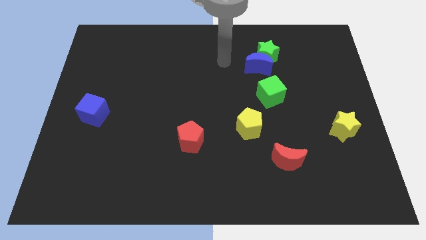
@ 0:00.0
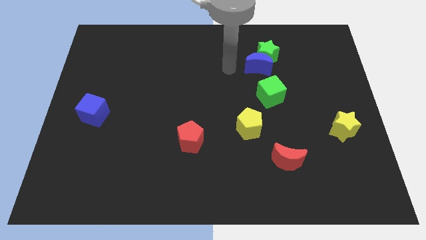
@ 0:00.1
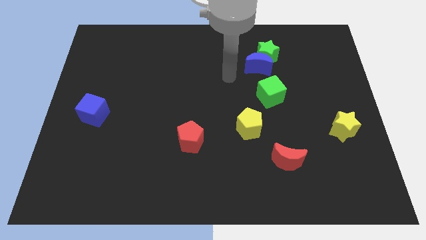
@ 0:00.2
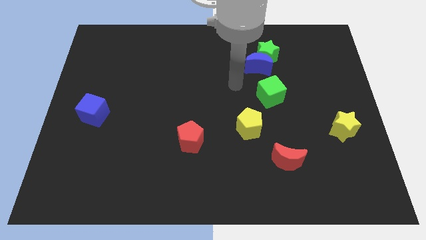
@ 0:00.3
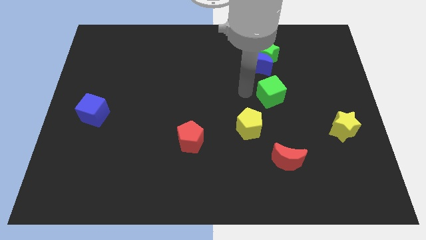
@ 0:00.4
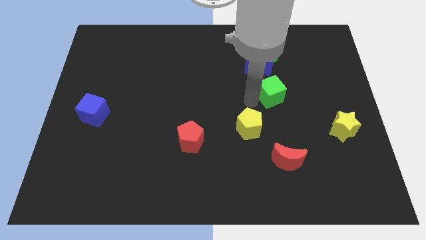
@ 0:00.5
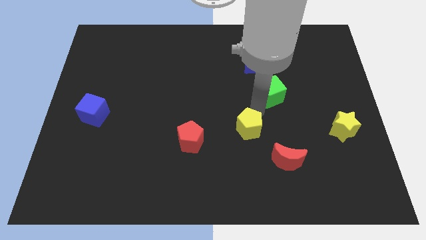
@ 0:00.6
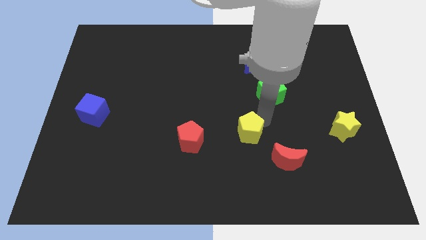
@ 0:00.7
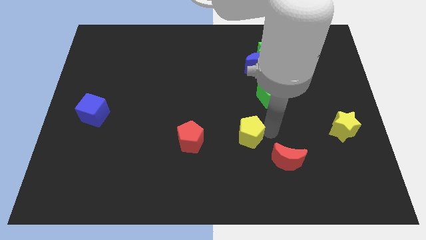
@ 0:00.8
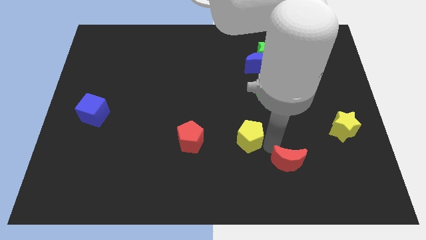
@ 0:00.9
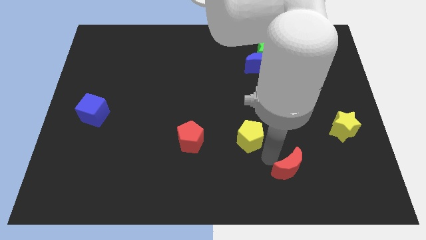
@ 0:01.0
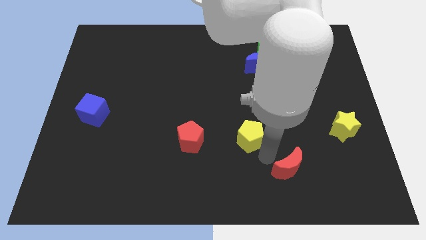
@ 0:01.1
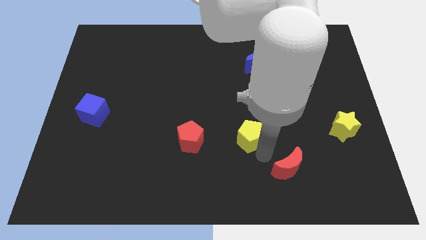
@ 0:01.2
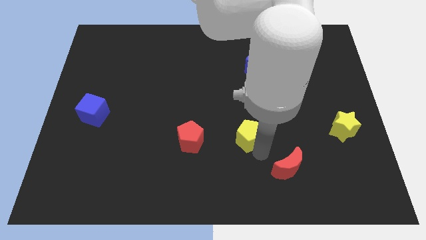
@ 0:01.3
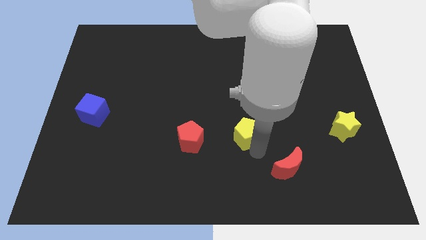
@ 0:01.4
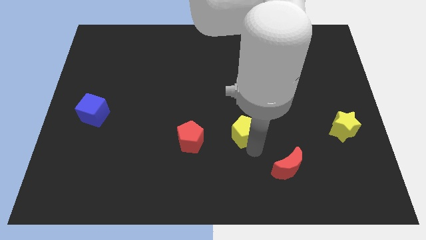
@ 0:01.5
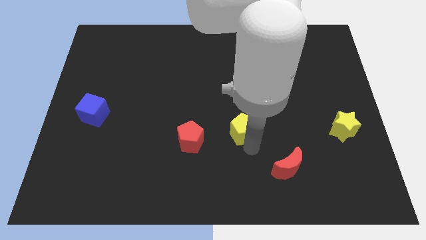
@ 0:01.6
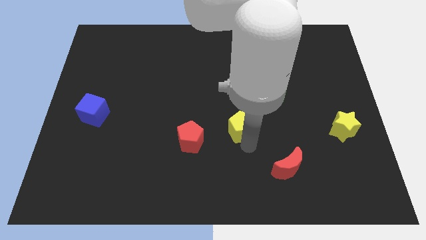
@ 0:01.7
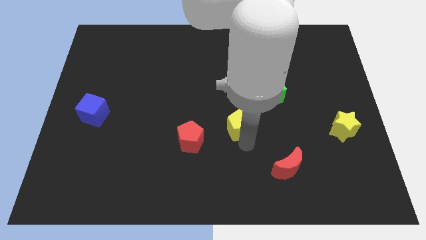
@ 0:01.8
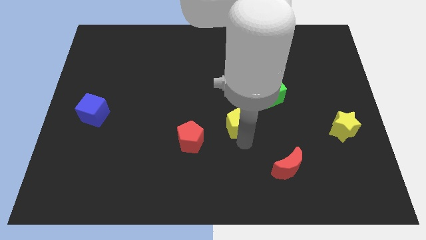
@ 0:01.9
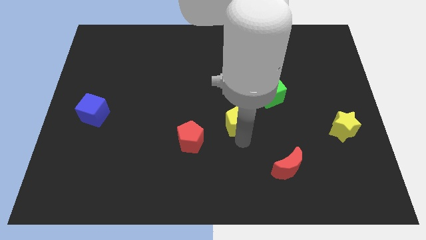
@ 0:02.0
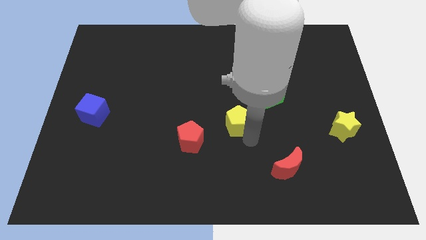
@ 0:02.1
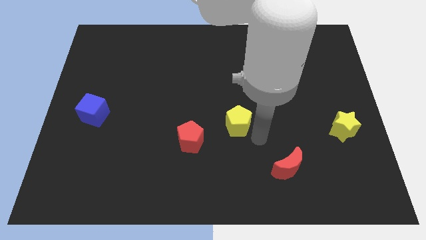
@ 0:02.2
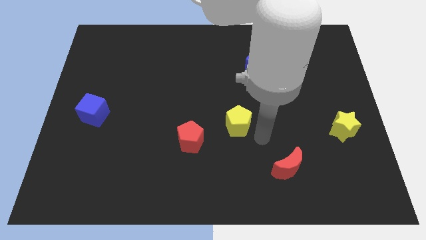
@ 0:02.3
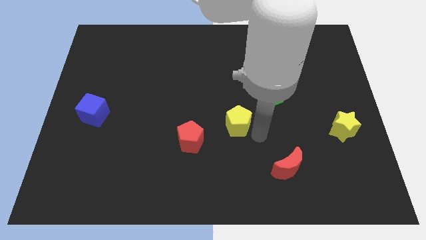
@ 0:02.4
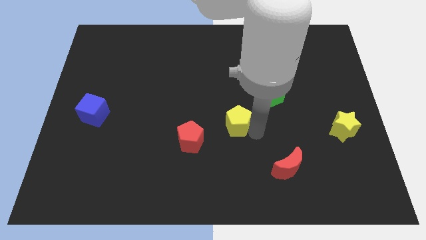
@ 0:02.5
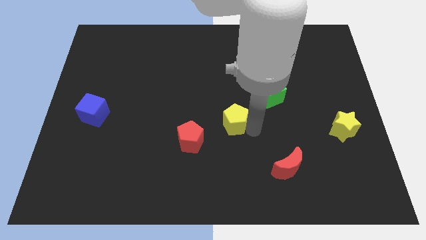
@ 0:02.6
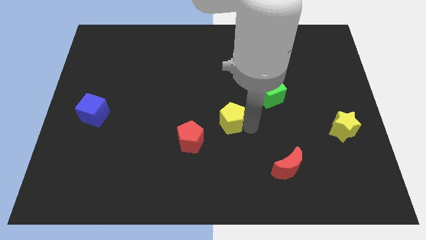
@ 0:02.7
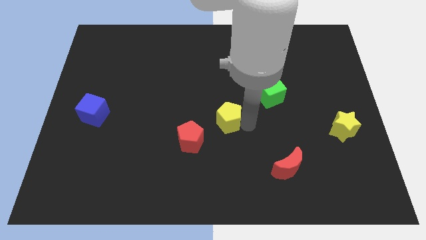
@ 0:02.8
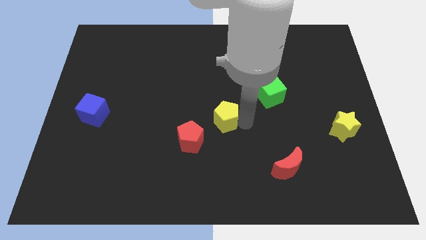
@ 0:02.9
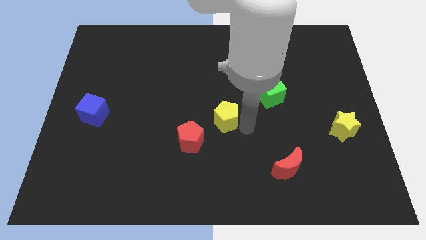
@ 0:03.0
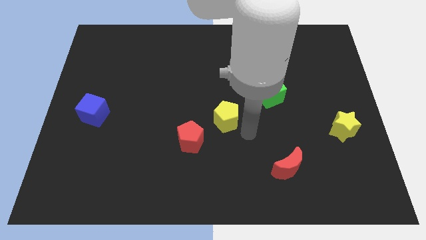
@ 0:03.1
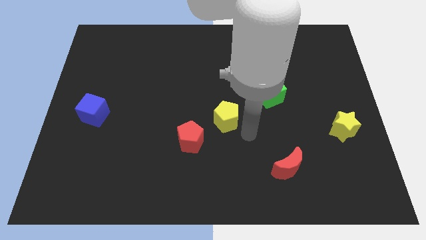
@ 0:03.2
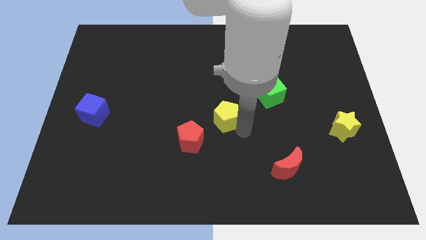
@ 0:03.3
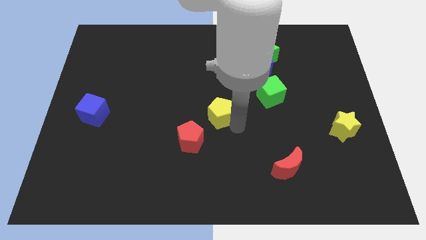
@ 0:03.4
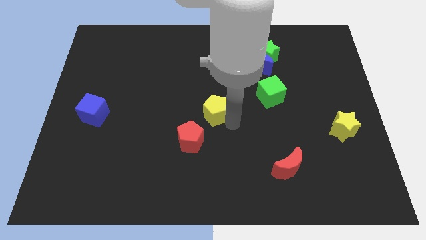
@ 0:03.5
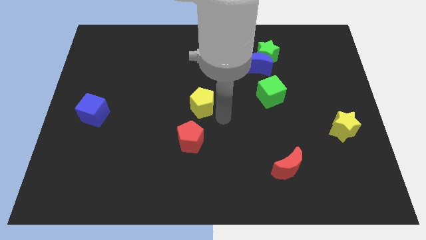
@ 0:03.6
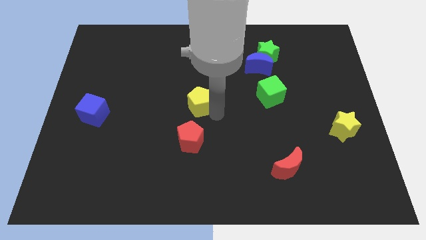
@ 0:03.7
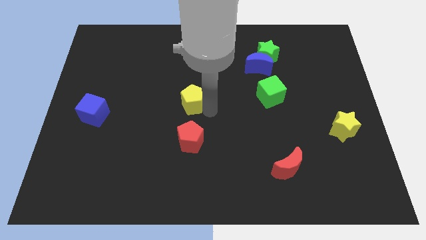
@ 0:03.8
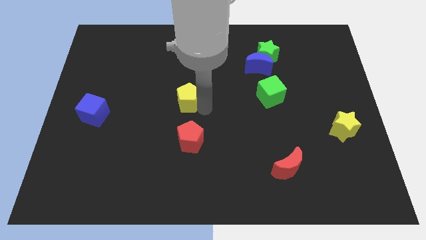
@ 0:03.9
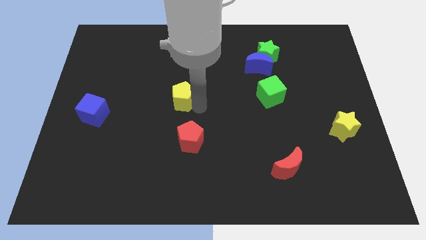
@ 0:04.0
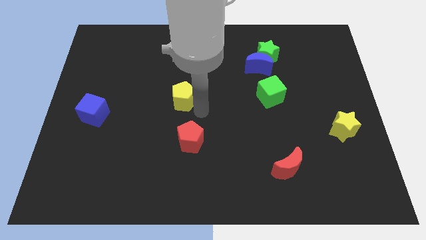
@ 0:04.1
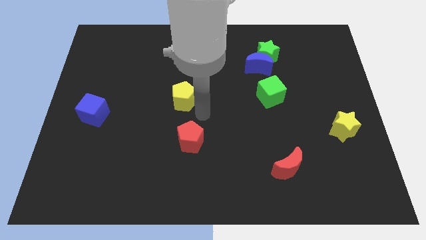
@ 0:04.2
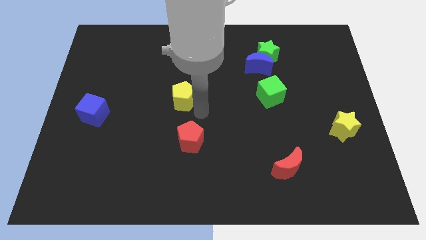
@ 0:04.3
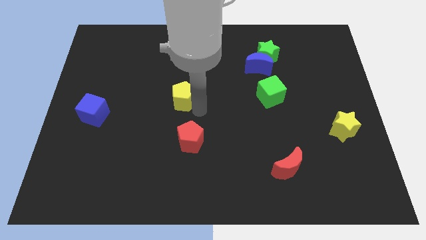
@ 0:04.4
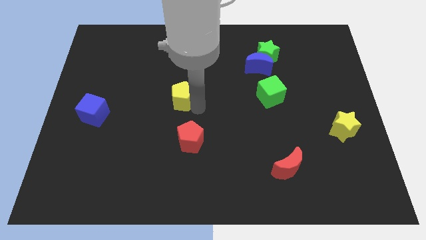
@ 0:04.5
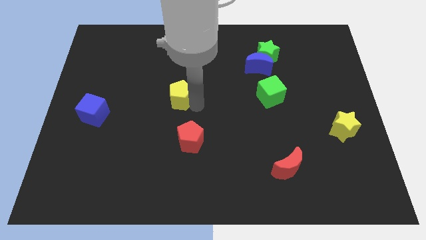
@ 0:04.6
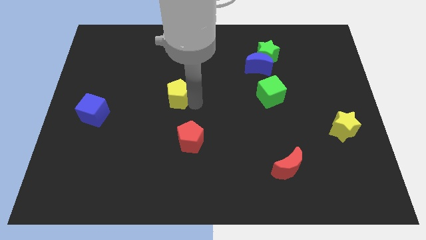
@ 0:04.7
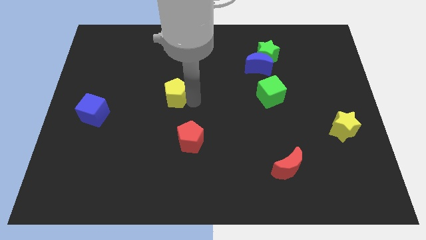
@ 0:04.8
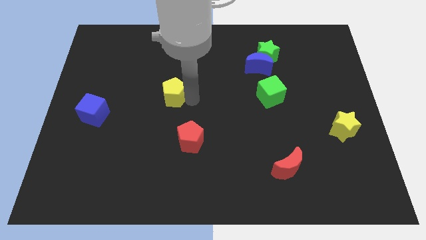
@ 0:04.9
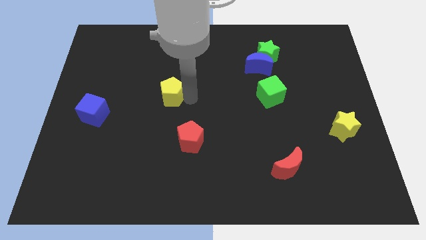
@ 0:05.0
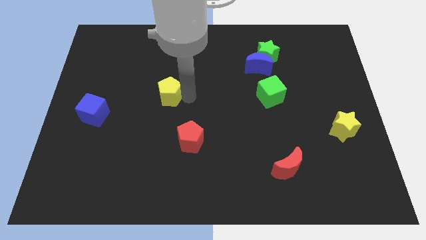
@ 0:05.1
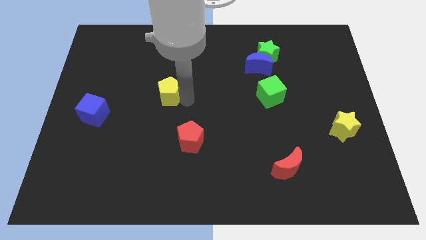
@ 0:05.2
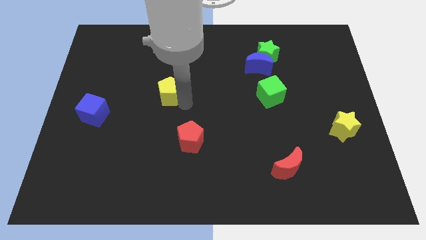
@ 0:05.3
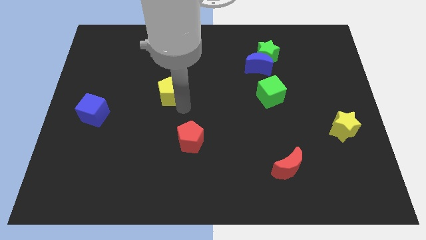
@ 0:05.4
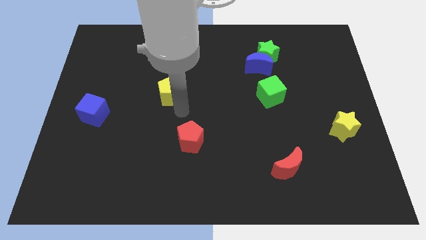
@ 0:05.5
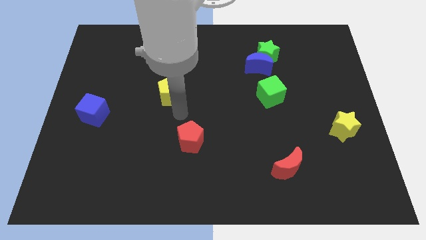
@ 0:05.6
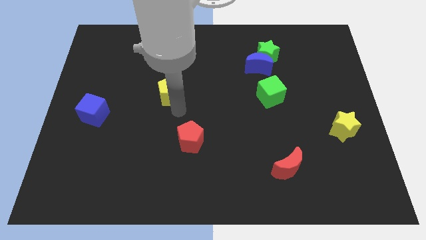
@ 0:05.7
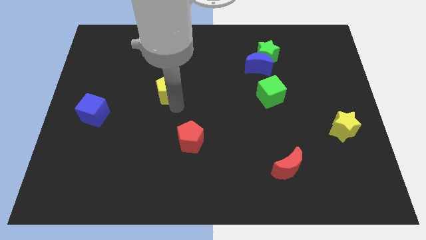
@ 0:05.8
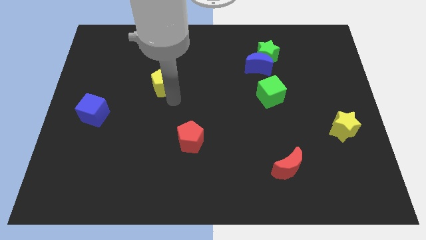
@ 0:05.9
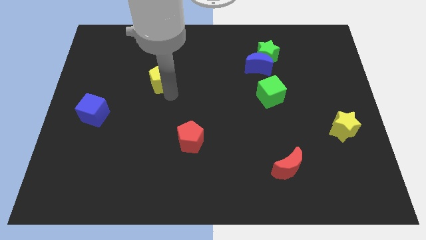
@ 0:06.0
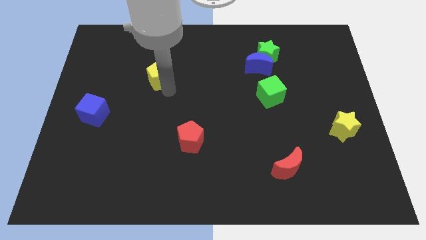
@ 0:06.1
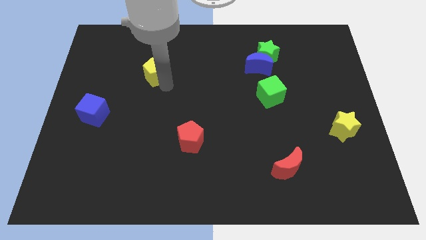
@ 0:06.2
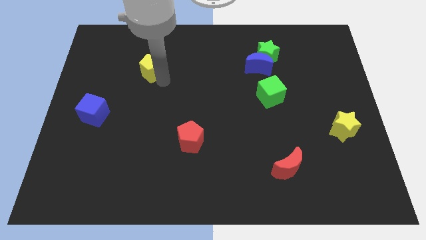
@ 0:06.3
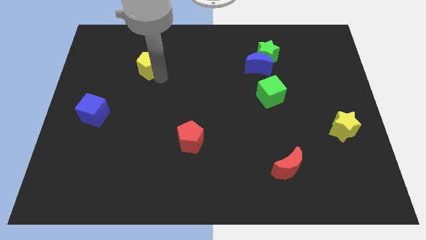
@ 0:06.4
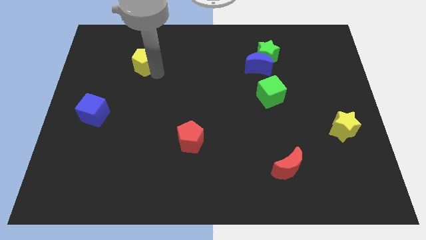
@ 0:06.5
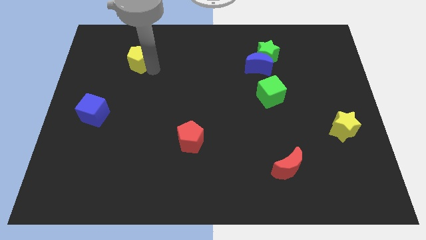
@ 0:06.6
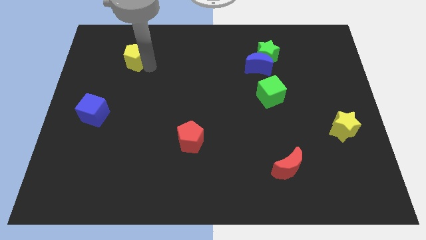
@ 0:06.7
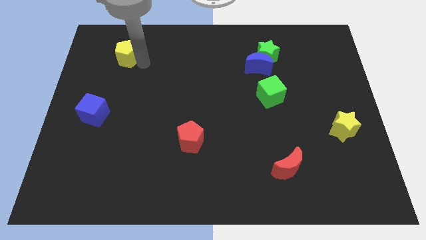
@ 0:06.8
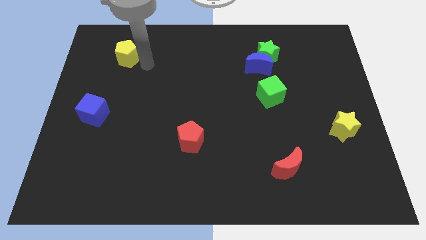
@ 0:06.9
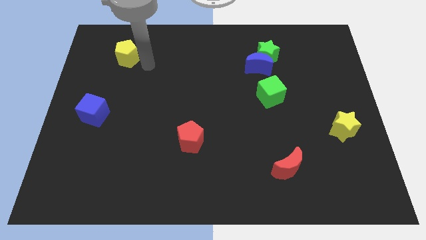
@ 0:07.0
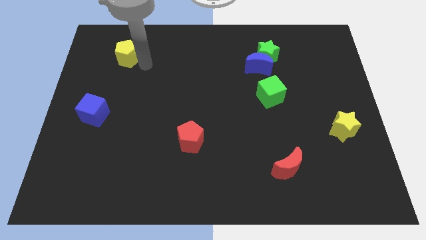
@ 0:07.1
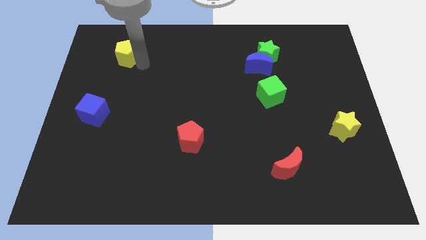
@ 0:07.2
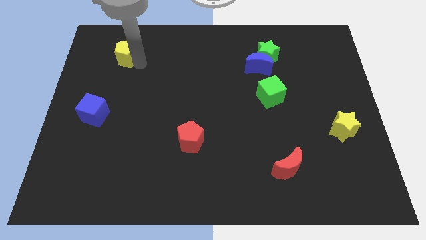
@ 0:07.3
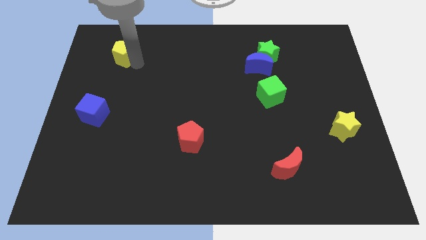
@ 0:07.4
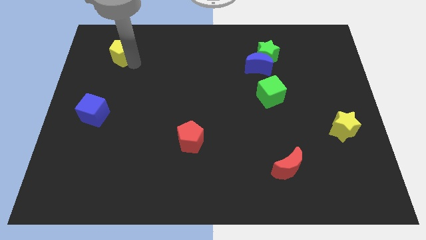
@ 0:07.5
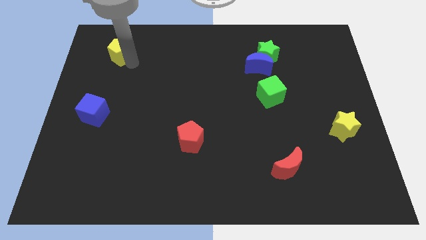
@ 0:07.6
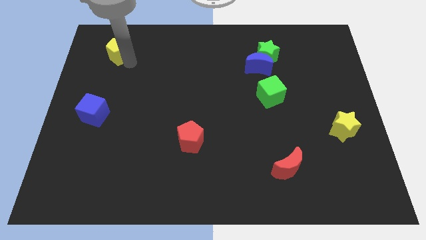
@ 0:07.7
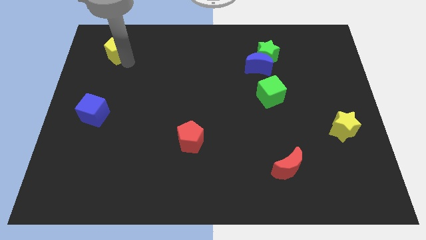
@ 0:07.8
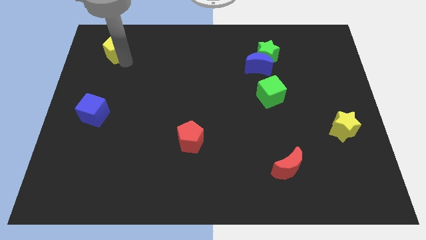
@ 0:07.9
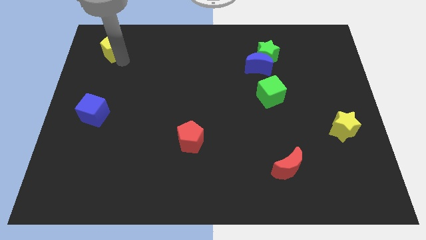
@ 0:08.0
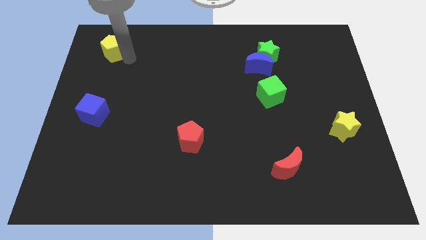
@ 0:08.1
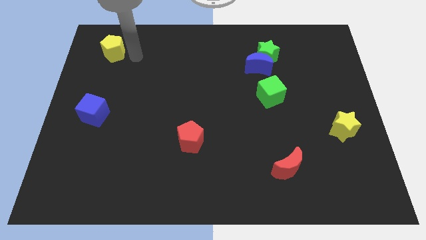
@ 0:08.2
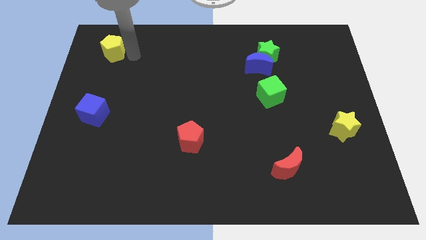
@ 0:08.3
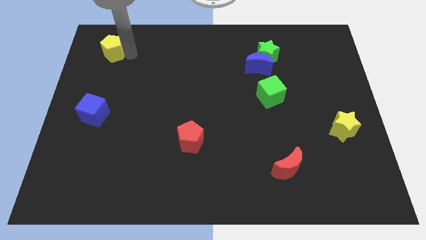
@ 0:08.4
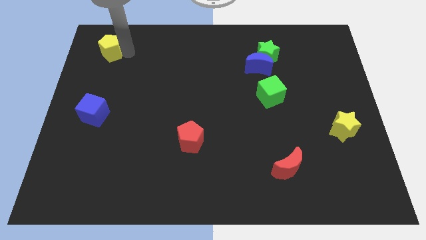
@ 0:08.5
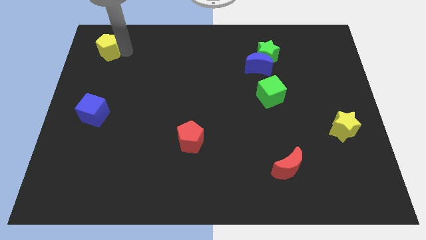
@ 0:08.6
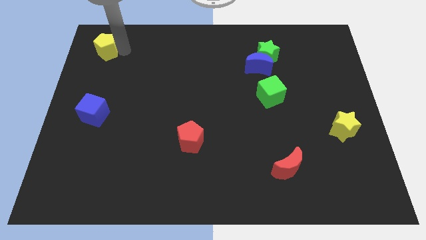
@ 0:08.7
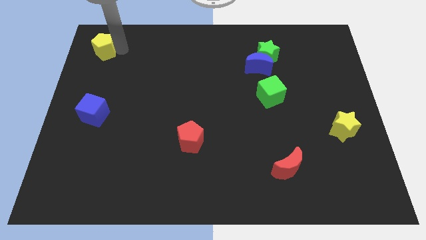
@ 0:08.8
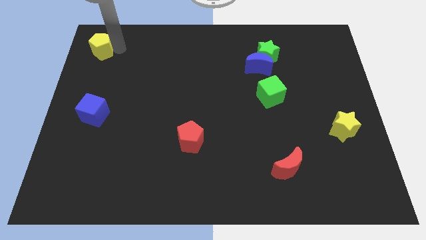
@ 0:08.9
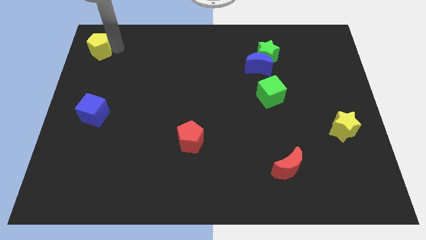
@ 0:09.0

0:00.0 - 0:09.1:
push the yellow pentagon to the top left corner
